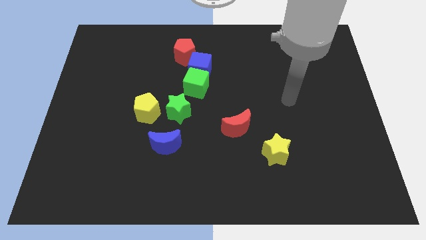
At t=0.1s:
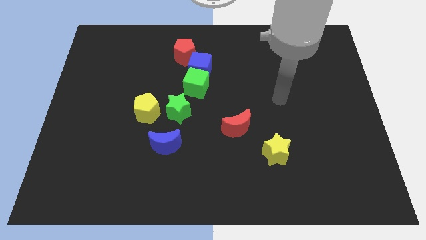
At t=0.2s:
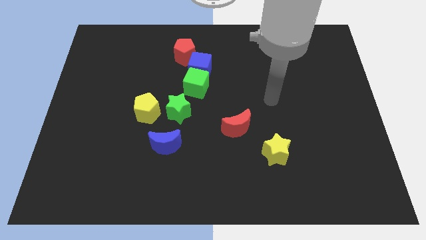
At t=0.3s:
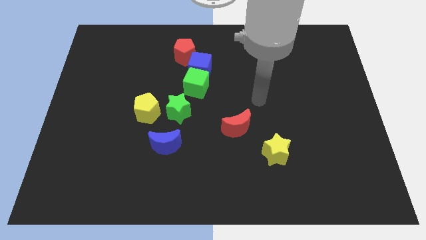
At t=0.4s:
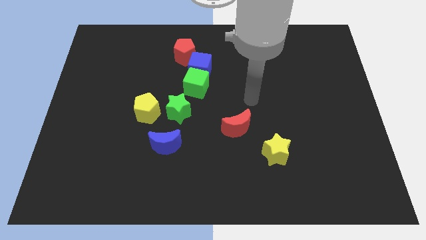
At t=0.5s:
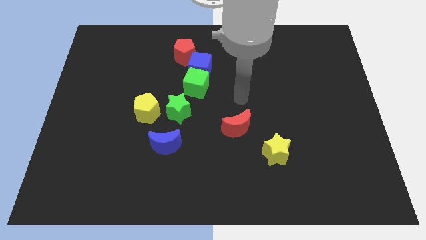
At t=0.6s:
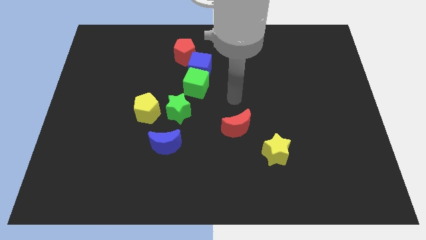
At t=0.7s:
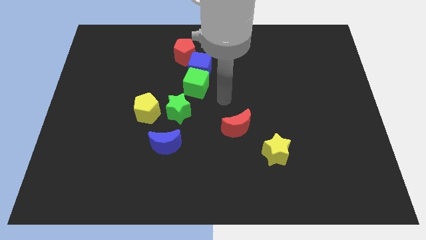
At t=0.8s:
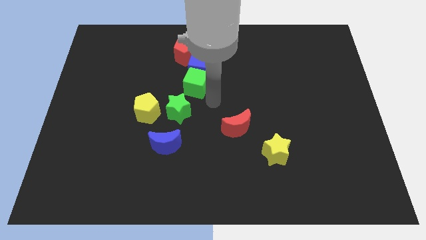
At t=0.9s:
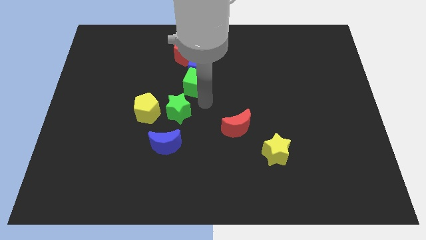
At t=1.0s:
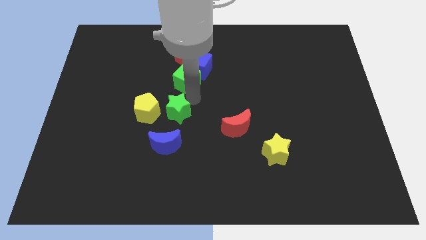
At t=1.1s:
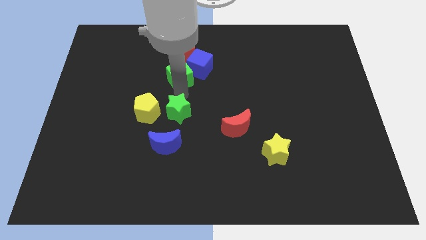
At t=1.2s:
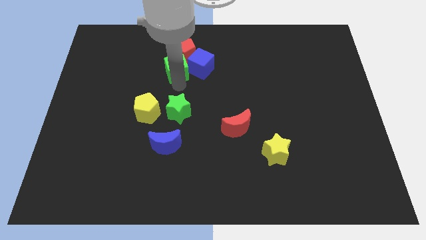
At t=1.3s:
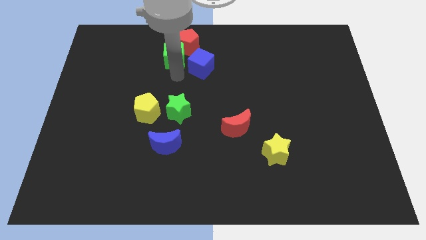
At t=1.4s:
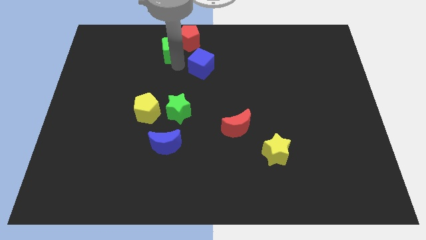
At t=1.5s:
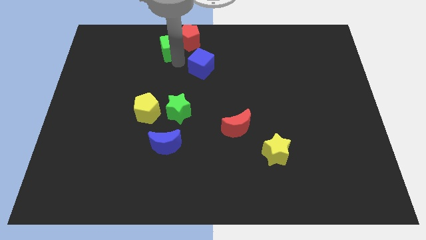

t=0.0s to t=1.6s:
separate the blue cube from the green cube and red pentagon

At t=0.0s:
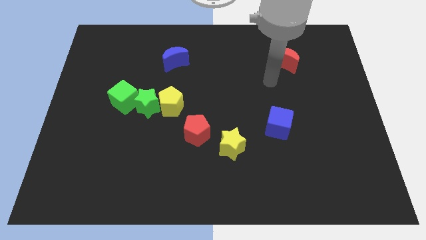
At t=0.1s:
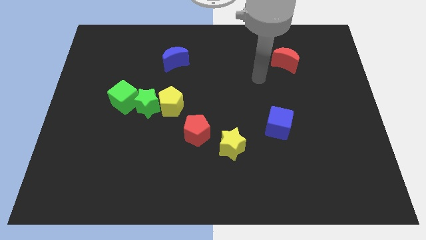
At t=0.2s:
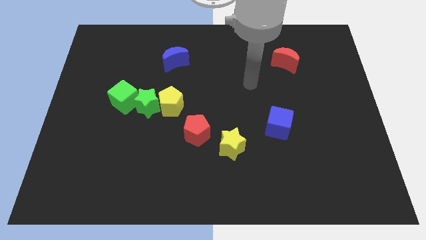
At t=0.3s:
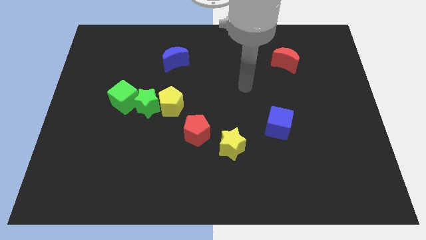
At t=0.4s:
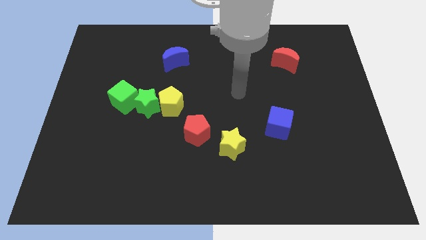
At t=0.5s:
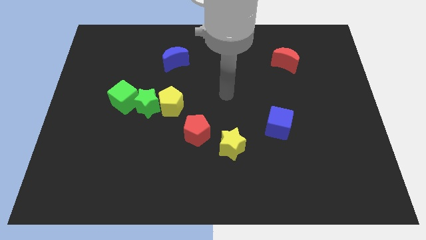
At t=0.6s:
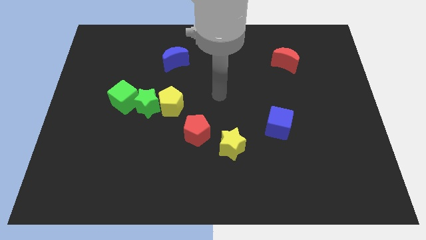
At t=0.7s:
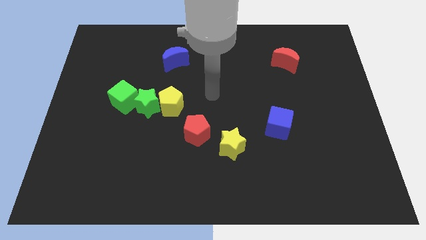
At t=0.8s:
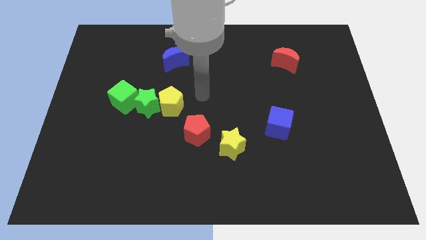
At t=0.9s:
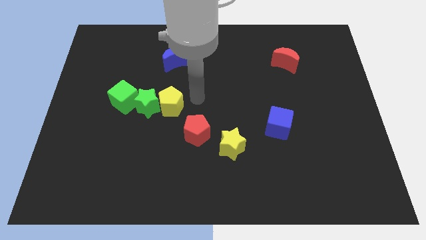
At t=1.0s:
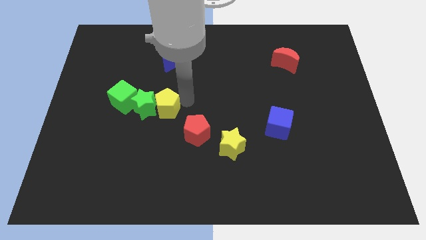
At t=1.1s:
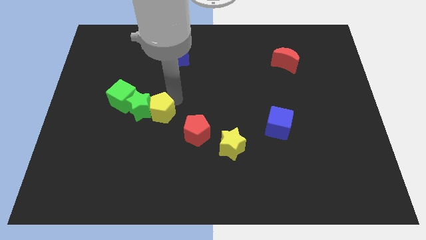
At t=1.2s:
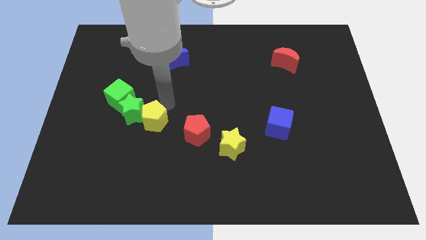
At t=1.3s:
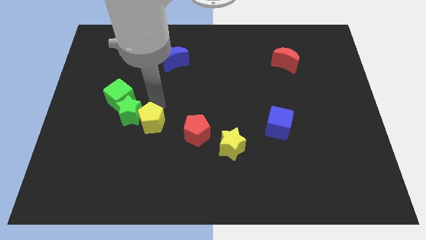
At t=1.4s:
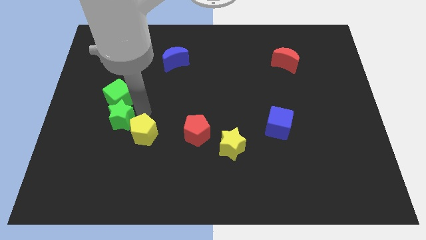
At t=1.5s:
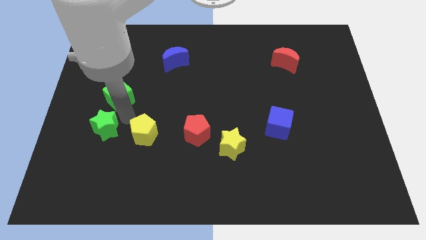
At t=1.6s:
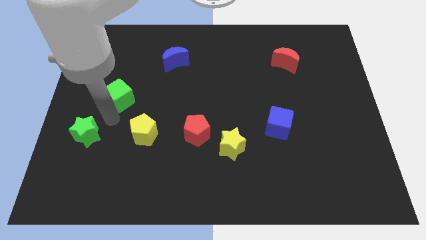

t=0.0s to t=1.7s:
move the green cube away from the green star

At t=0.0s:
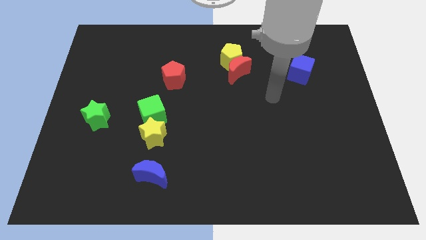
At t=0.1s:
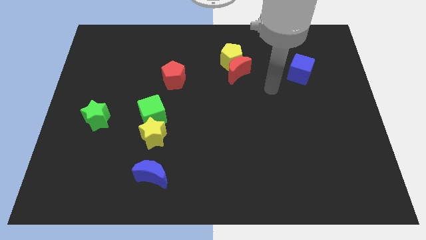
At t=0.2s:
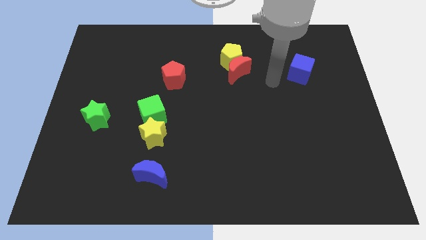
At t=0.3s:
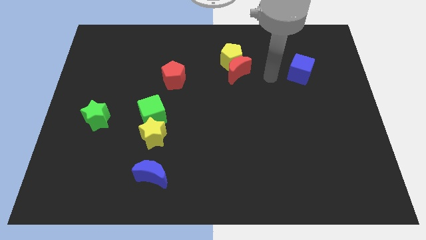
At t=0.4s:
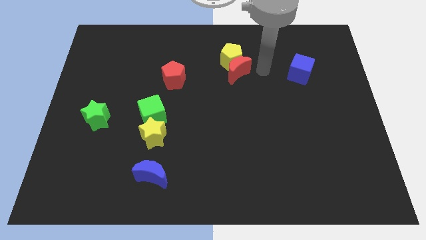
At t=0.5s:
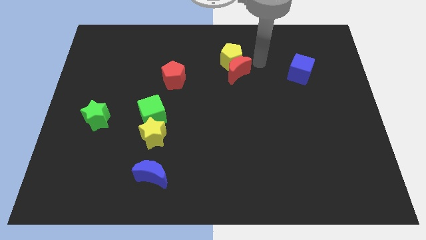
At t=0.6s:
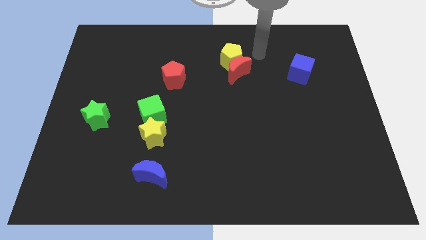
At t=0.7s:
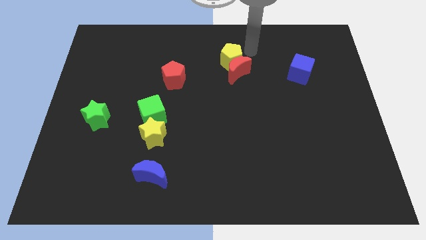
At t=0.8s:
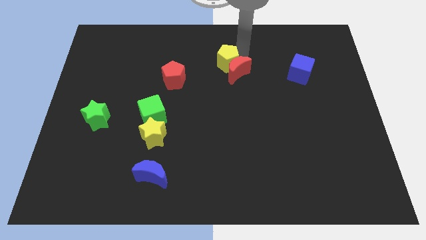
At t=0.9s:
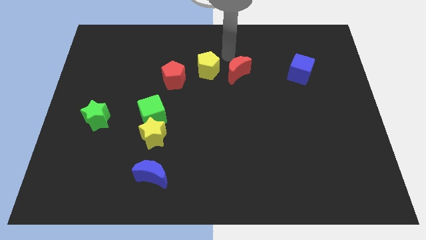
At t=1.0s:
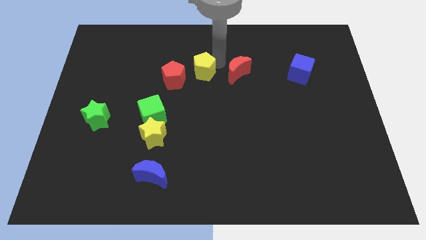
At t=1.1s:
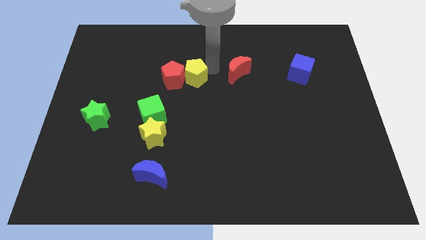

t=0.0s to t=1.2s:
separate the red moon from the yellow pentagon

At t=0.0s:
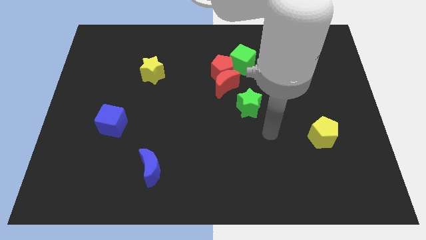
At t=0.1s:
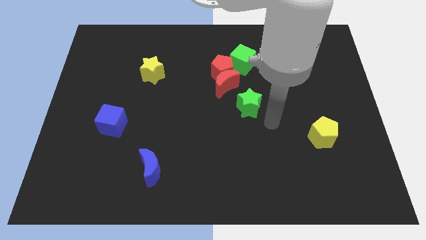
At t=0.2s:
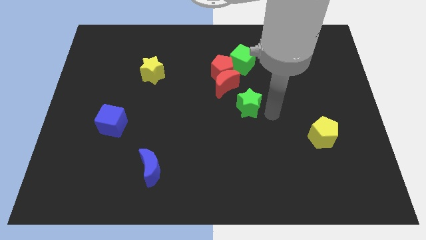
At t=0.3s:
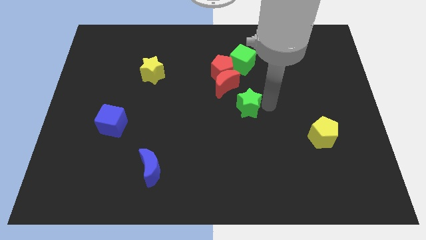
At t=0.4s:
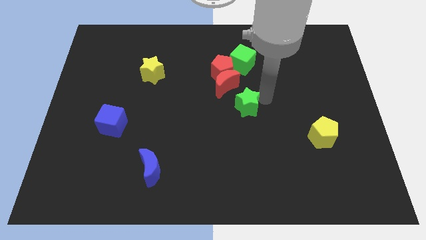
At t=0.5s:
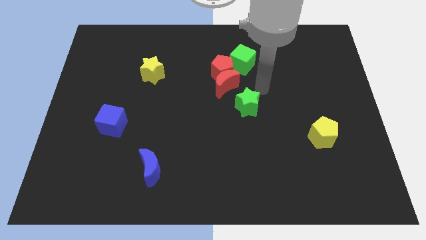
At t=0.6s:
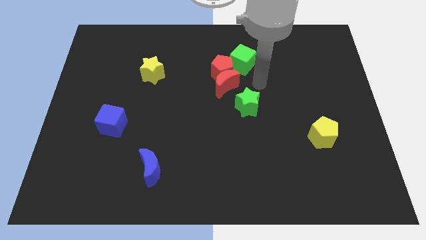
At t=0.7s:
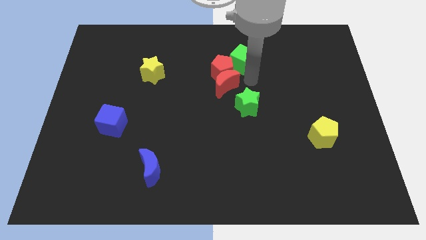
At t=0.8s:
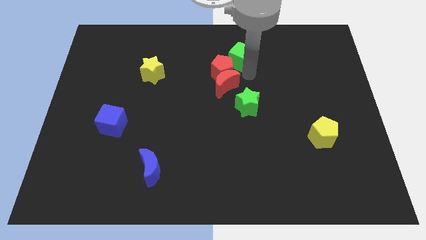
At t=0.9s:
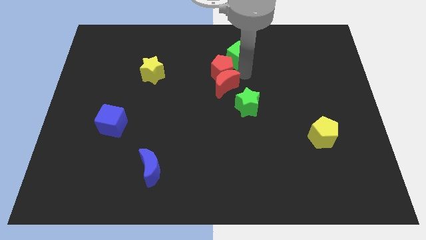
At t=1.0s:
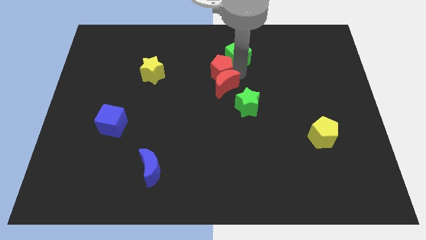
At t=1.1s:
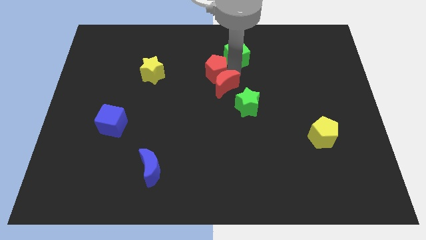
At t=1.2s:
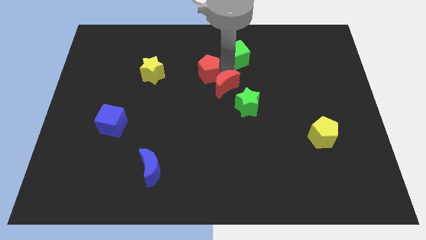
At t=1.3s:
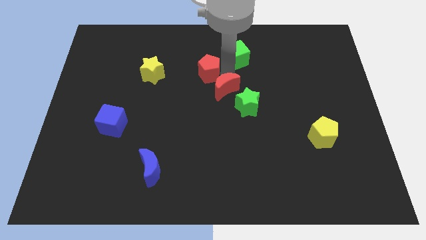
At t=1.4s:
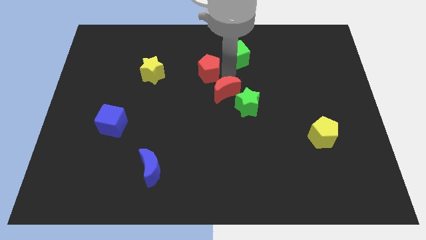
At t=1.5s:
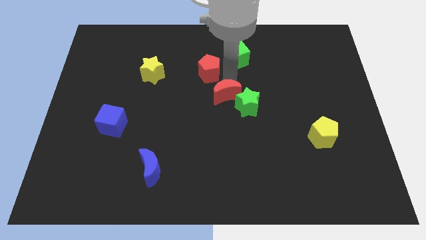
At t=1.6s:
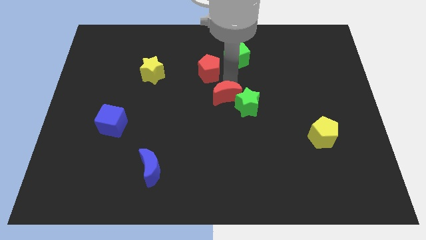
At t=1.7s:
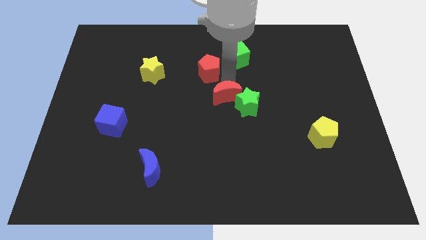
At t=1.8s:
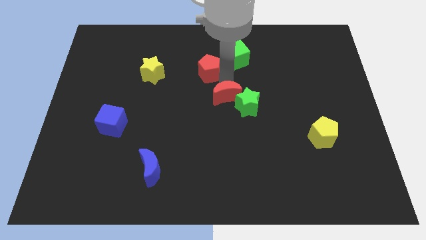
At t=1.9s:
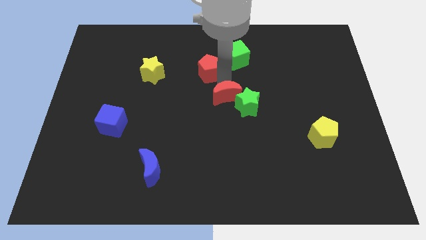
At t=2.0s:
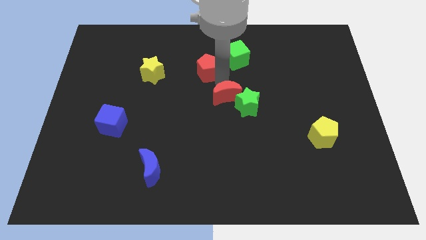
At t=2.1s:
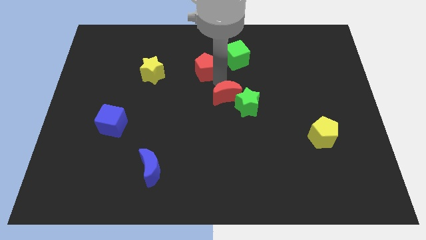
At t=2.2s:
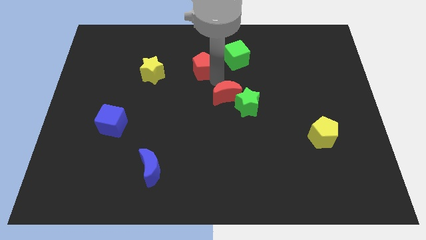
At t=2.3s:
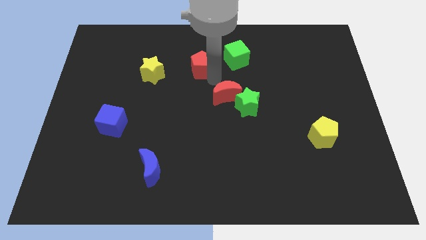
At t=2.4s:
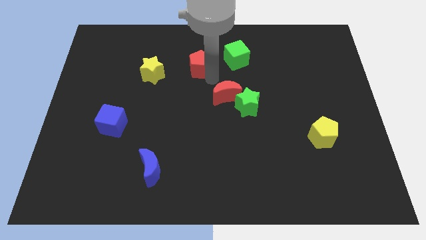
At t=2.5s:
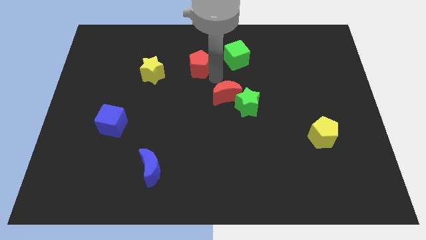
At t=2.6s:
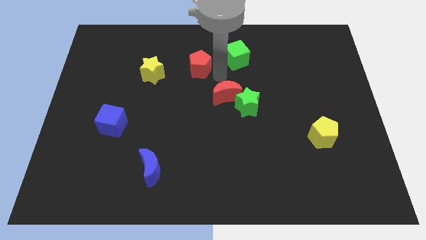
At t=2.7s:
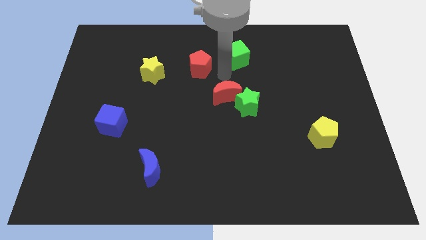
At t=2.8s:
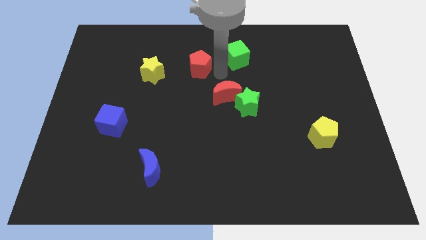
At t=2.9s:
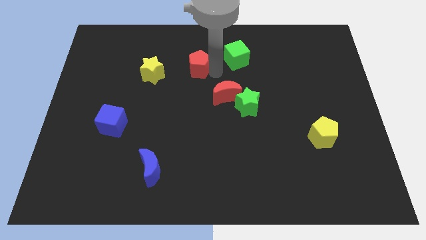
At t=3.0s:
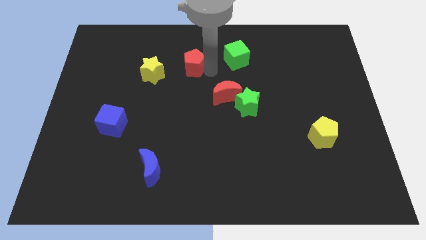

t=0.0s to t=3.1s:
move the red pentagon away from the red moon and green cube

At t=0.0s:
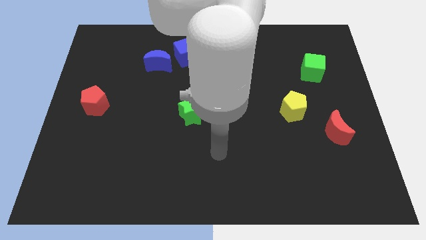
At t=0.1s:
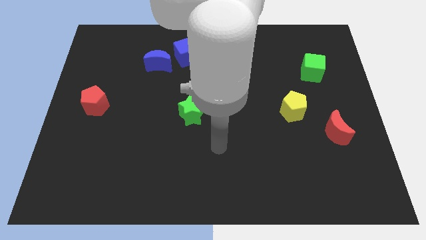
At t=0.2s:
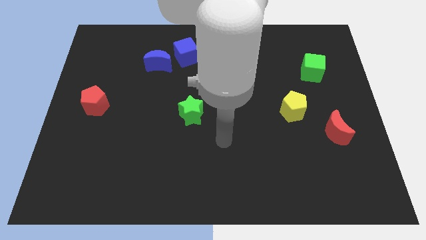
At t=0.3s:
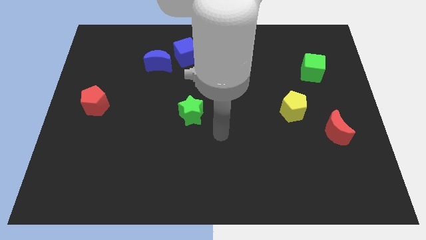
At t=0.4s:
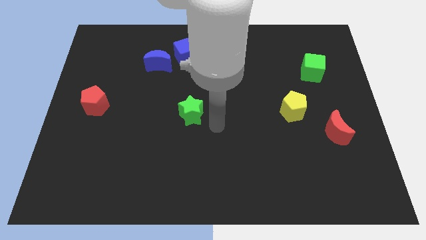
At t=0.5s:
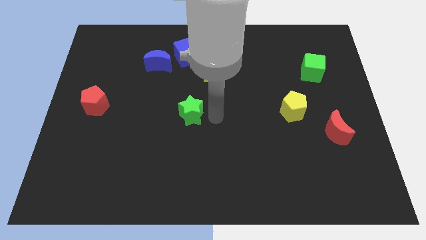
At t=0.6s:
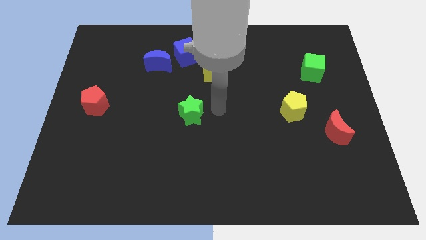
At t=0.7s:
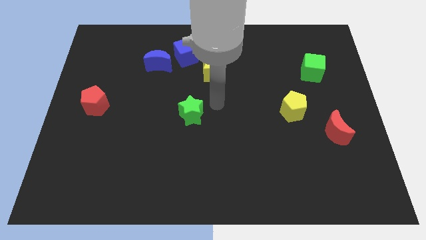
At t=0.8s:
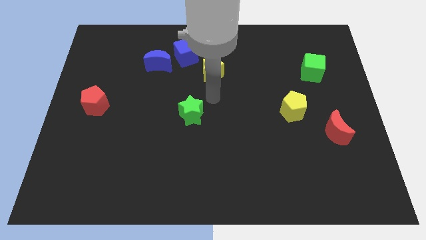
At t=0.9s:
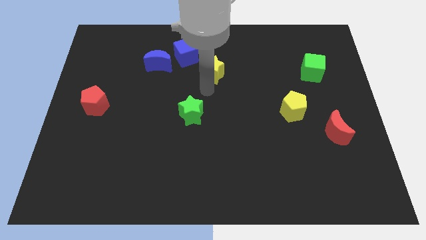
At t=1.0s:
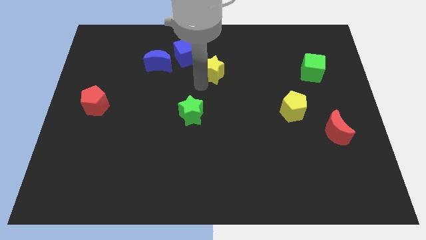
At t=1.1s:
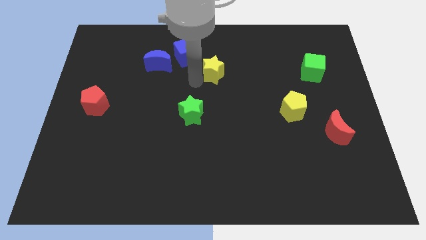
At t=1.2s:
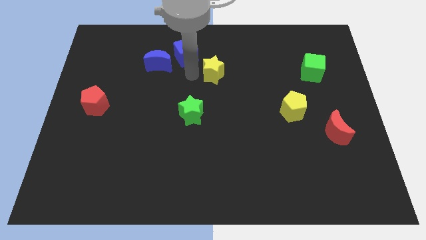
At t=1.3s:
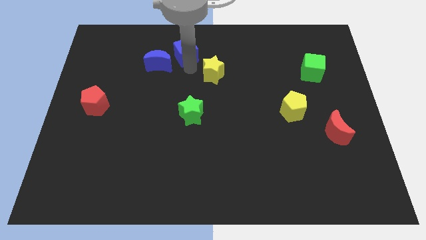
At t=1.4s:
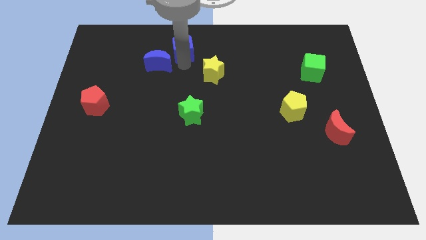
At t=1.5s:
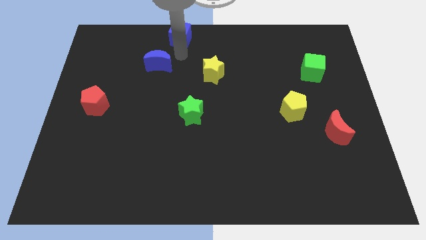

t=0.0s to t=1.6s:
separate the blue moon from the blue cube

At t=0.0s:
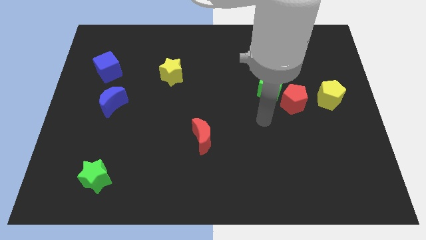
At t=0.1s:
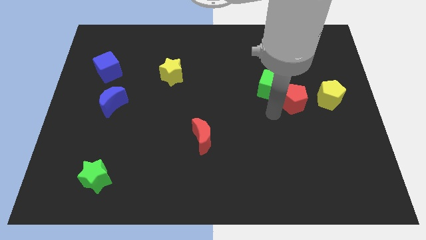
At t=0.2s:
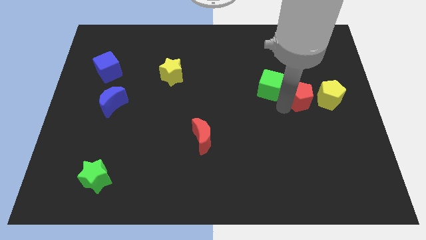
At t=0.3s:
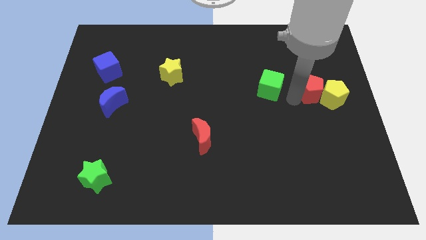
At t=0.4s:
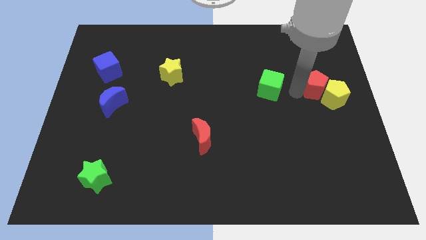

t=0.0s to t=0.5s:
separate the green cube from the red pentagon
